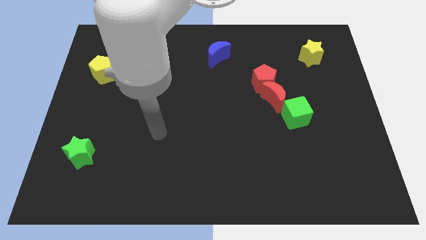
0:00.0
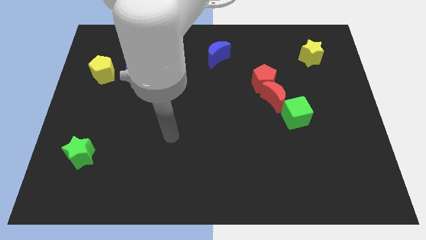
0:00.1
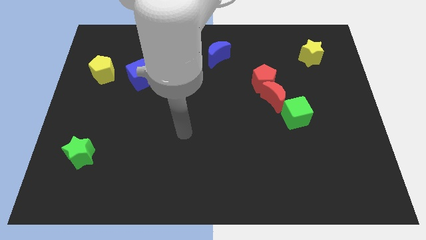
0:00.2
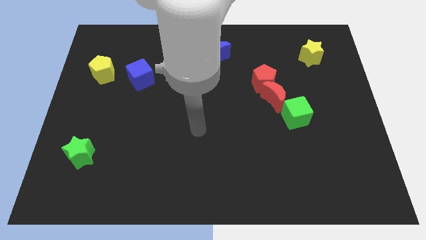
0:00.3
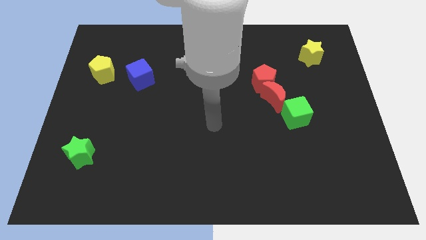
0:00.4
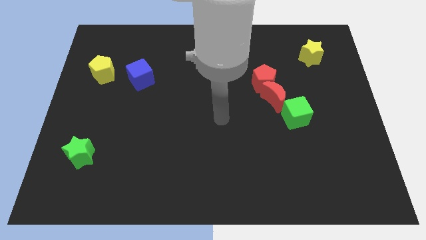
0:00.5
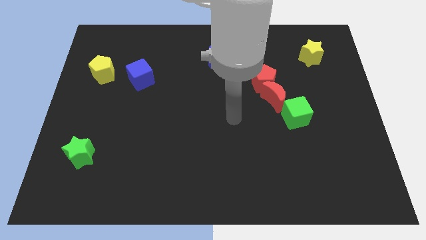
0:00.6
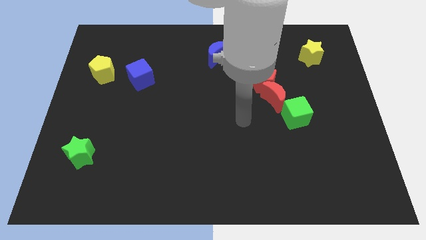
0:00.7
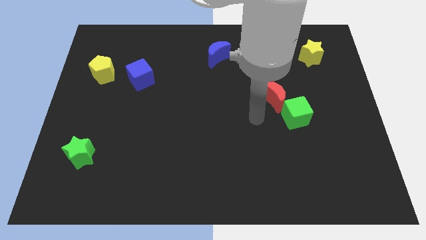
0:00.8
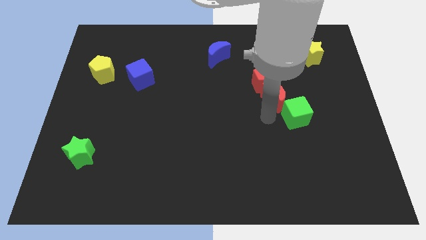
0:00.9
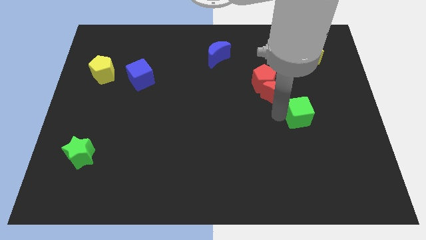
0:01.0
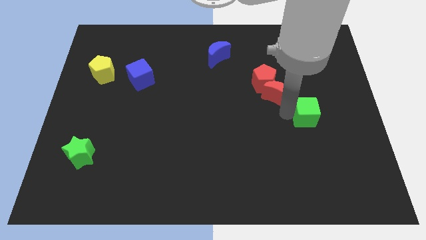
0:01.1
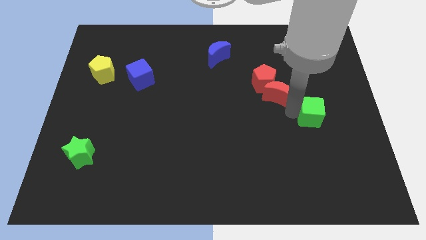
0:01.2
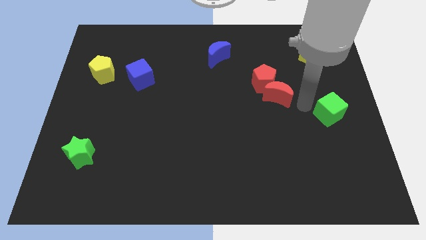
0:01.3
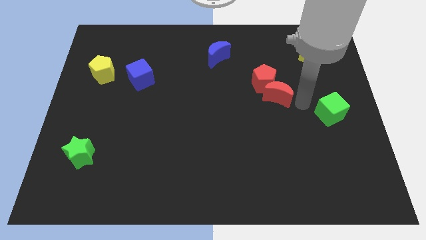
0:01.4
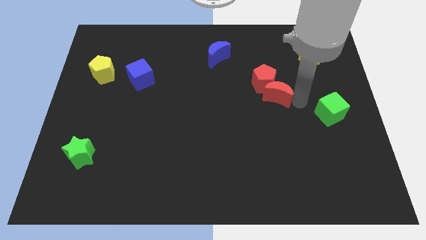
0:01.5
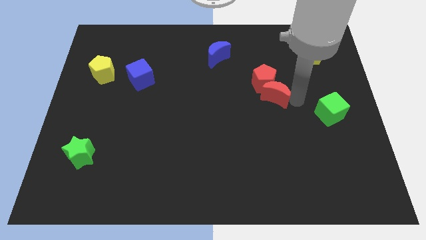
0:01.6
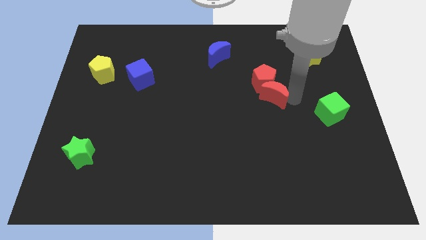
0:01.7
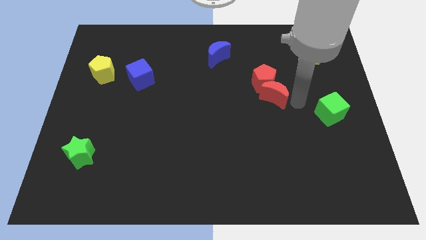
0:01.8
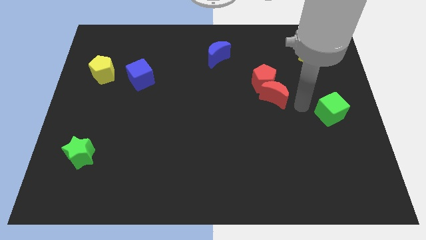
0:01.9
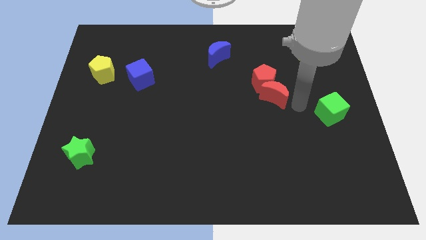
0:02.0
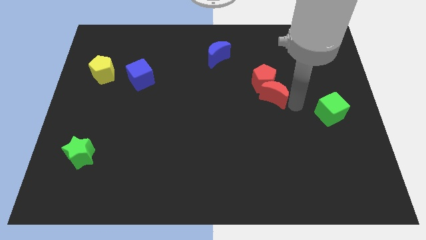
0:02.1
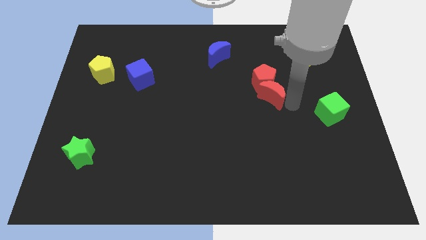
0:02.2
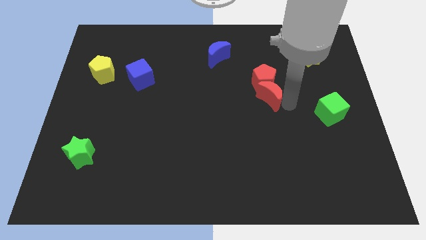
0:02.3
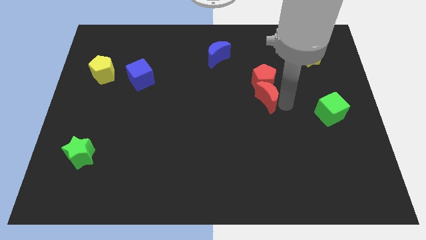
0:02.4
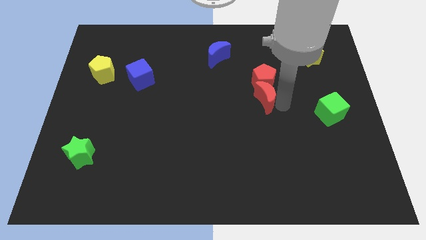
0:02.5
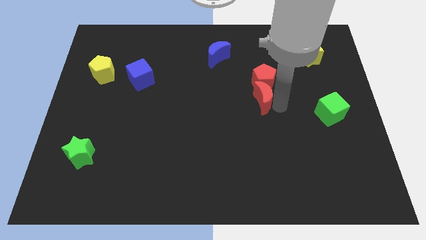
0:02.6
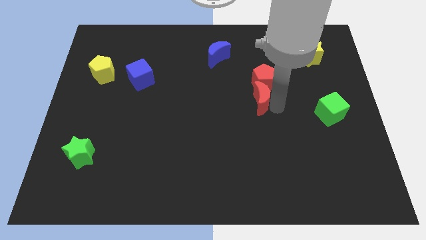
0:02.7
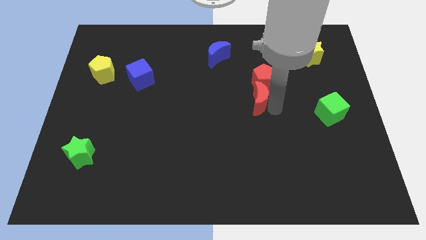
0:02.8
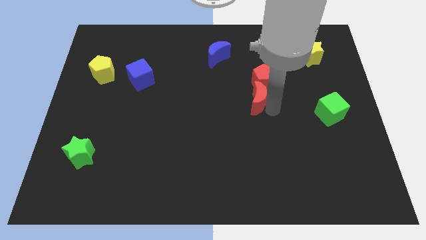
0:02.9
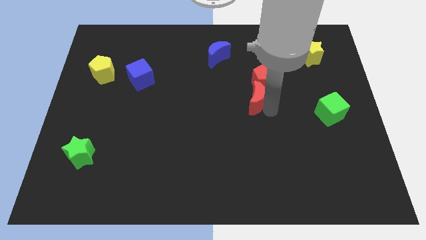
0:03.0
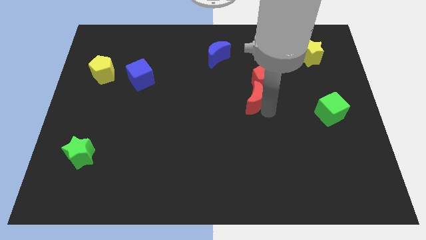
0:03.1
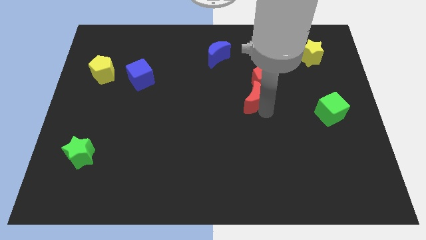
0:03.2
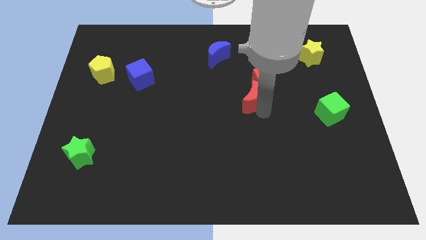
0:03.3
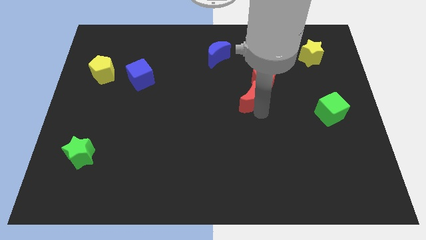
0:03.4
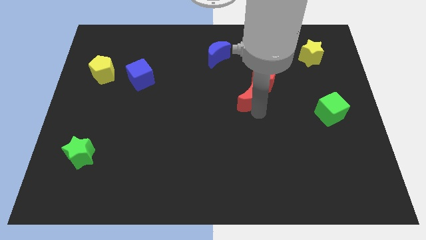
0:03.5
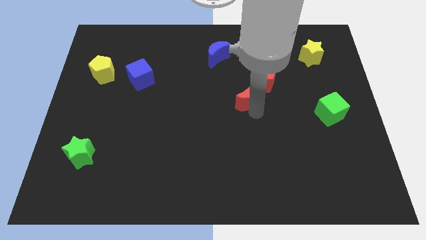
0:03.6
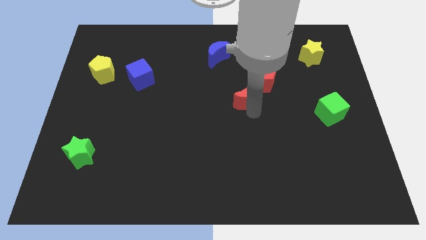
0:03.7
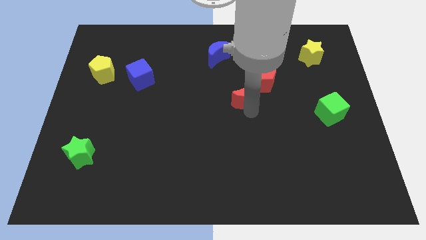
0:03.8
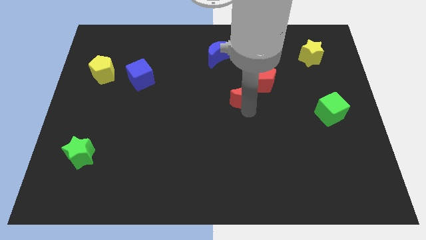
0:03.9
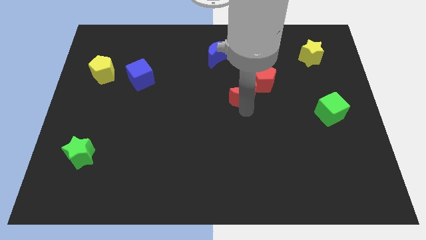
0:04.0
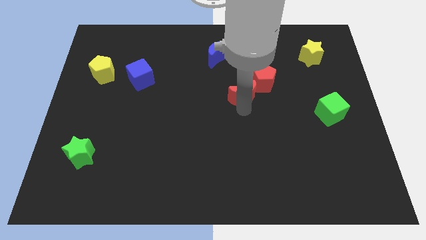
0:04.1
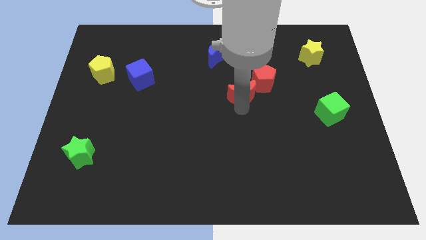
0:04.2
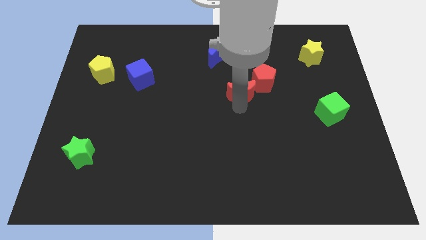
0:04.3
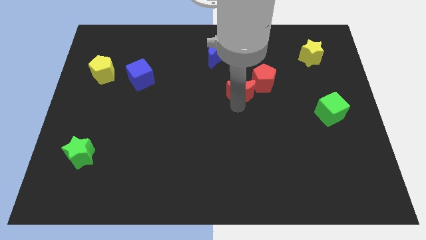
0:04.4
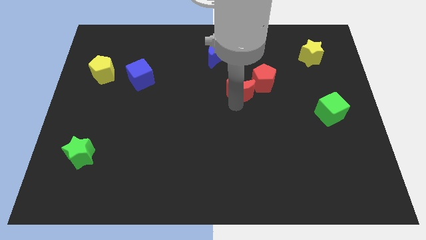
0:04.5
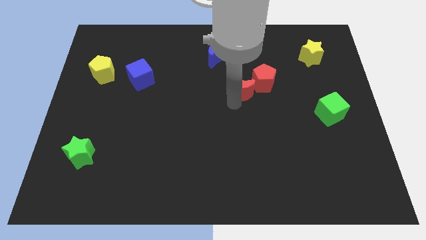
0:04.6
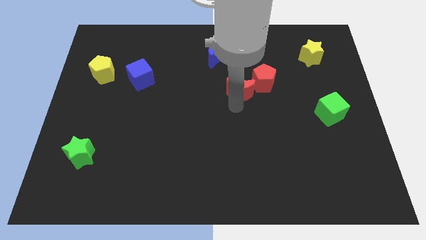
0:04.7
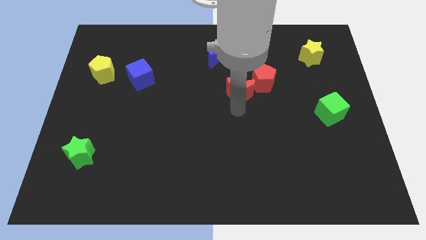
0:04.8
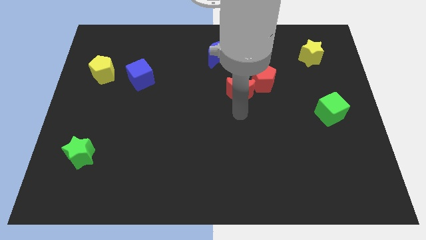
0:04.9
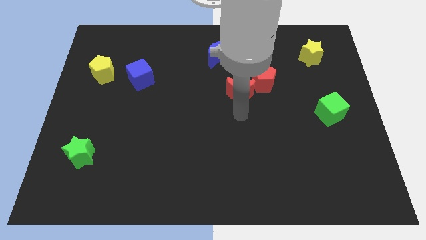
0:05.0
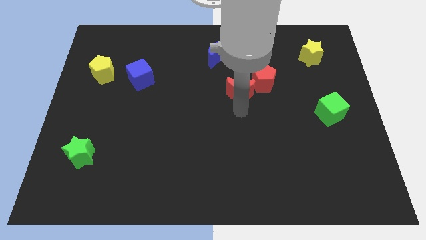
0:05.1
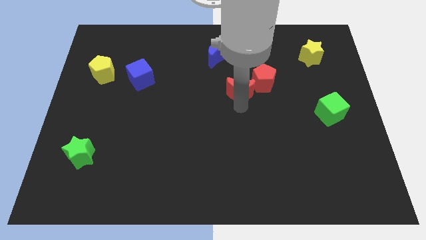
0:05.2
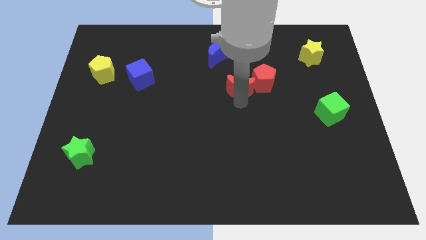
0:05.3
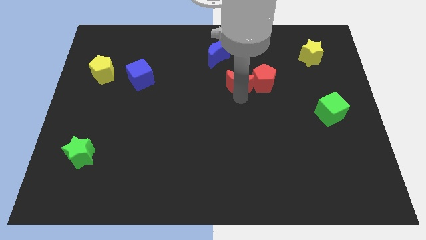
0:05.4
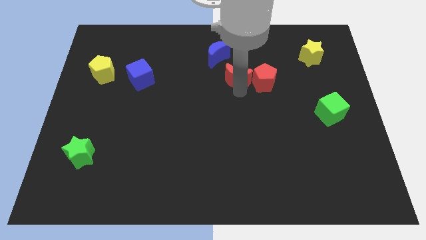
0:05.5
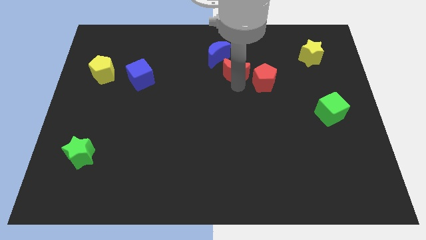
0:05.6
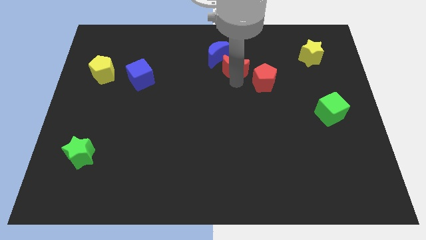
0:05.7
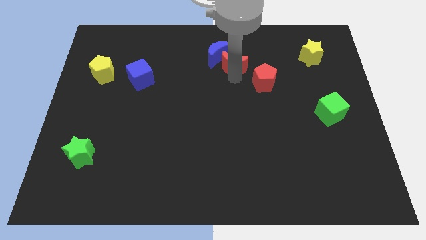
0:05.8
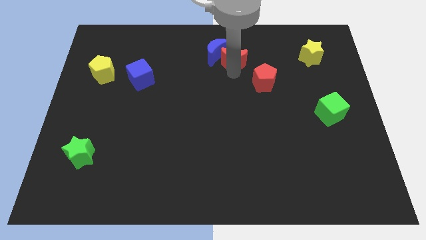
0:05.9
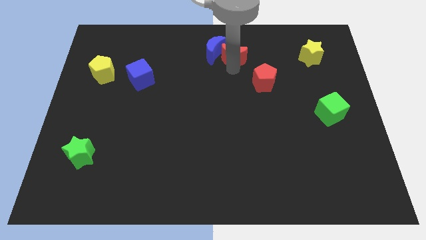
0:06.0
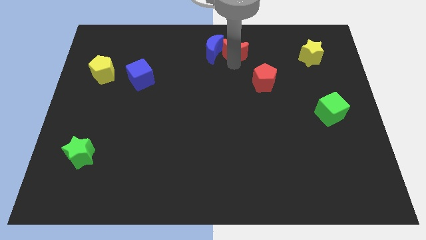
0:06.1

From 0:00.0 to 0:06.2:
slide the red moon to the top

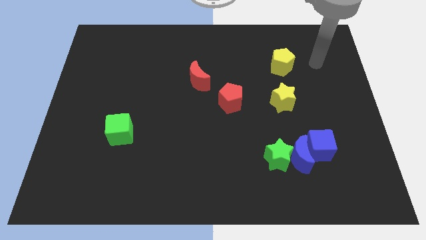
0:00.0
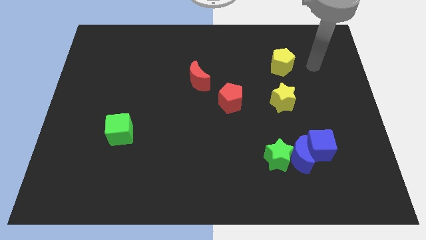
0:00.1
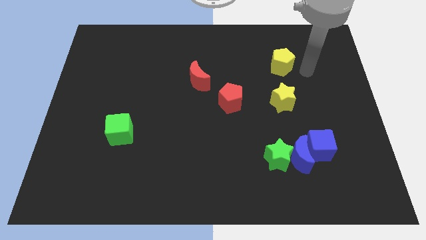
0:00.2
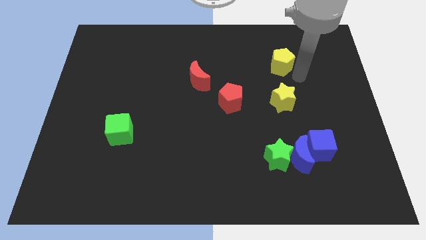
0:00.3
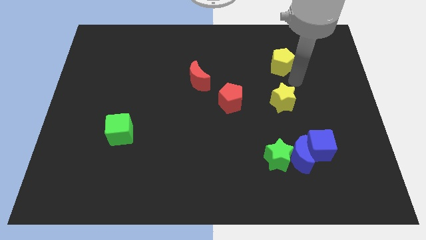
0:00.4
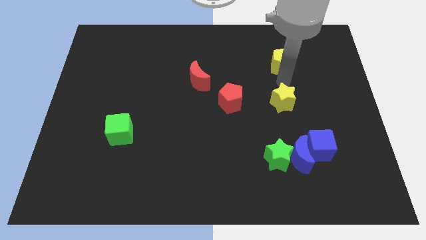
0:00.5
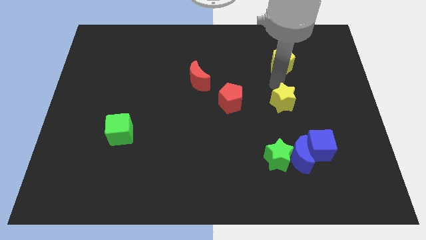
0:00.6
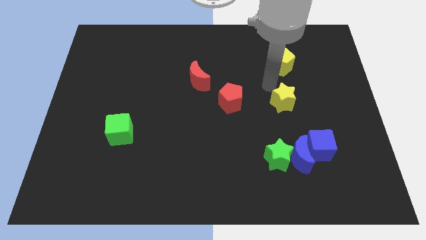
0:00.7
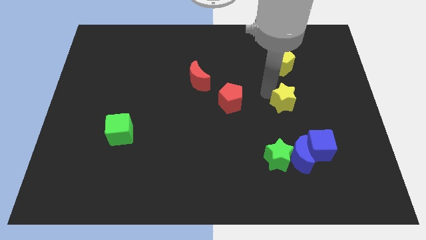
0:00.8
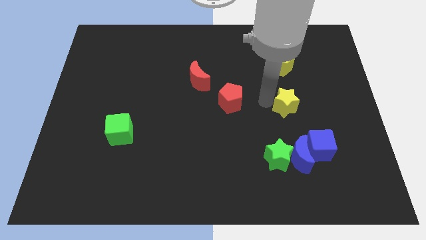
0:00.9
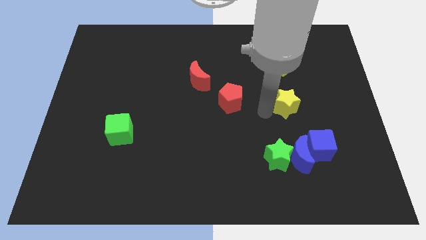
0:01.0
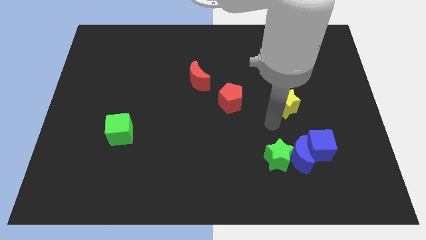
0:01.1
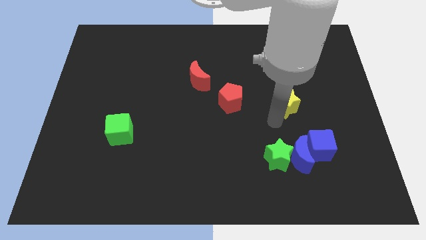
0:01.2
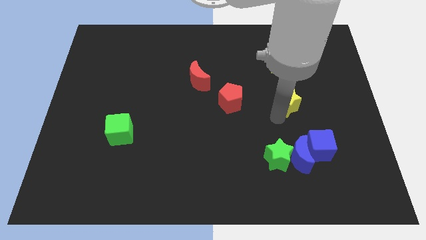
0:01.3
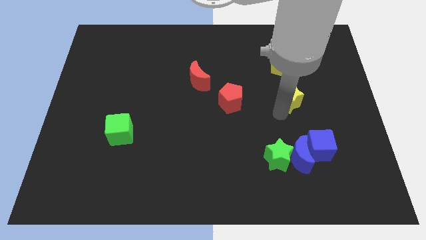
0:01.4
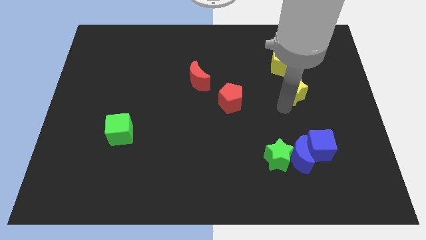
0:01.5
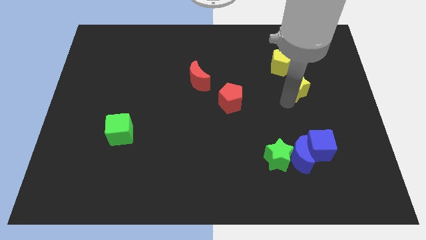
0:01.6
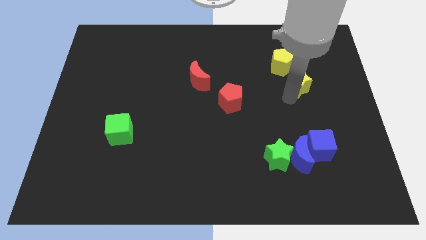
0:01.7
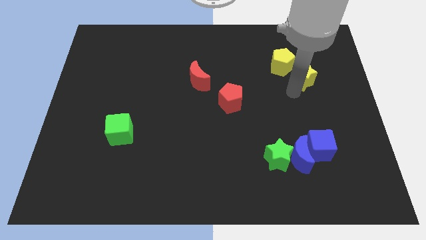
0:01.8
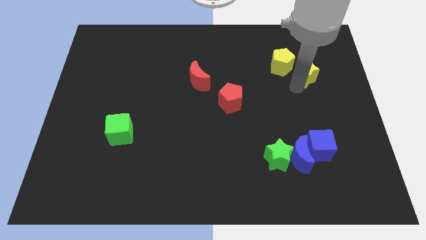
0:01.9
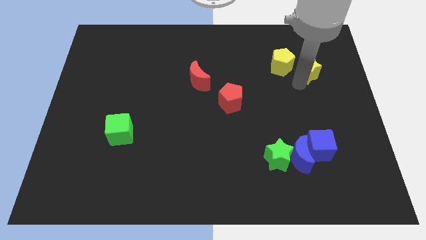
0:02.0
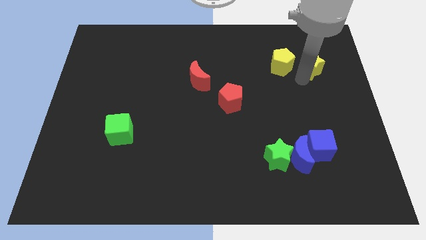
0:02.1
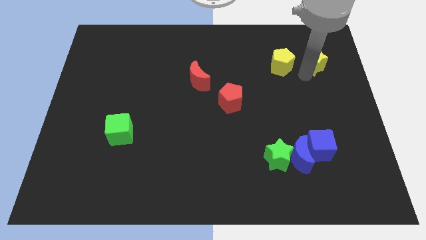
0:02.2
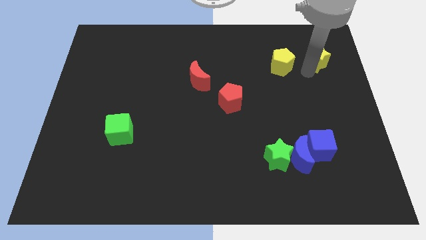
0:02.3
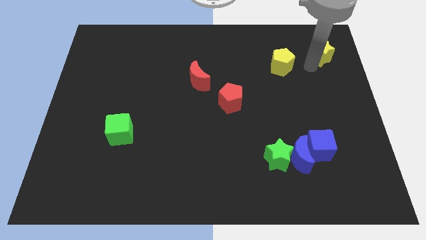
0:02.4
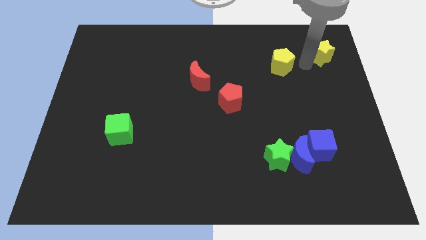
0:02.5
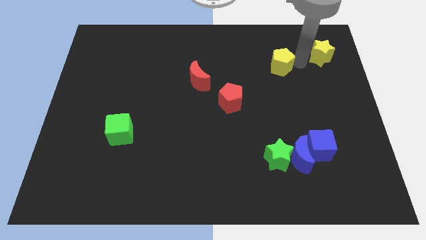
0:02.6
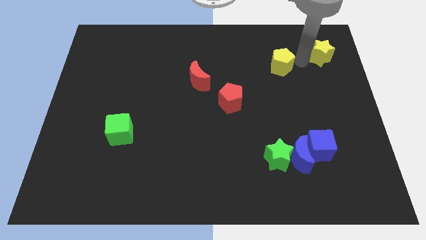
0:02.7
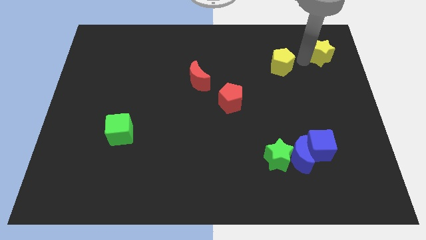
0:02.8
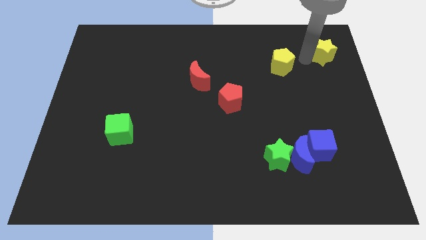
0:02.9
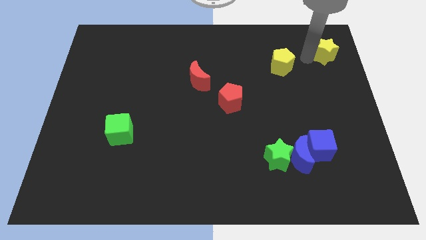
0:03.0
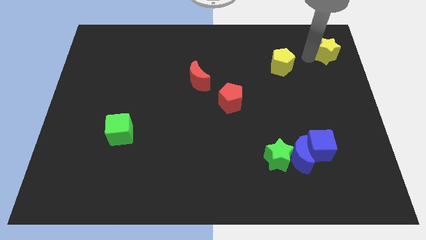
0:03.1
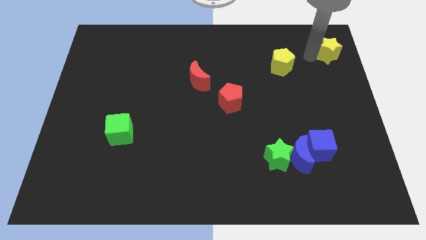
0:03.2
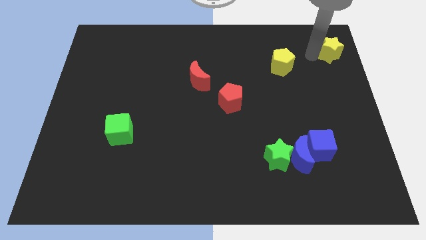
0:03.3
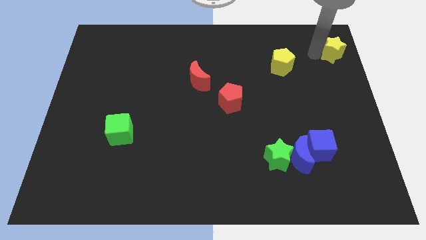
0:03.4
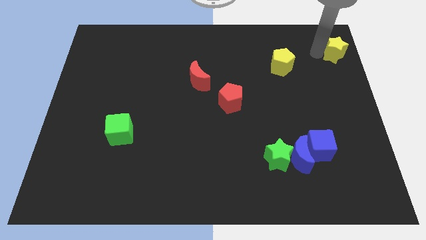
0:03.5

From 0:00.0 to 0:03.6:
put the yellow star to the top right corner
